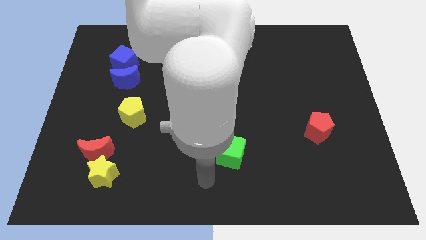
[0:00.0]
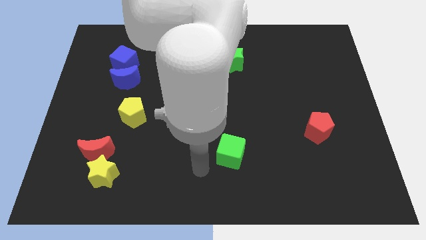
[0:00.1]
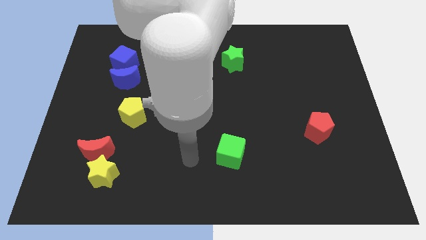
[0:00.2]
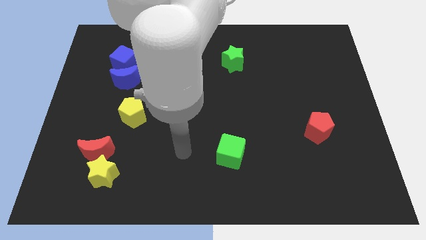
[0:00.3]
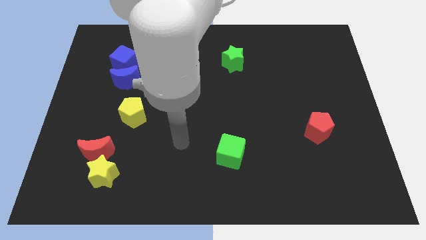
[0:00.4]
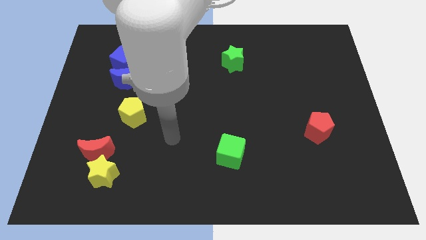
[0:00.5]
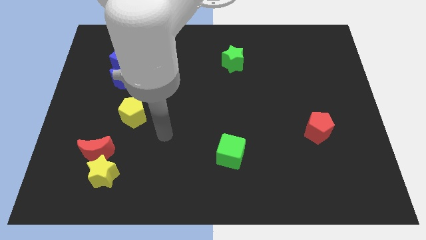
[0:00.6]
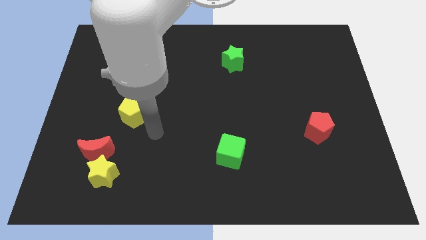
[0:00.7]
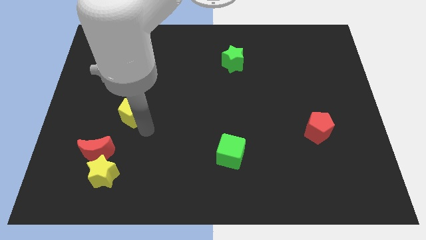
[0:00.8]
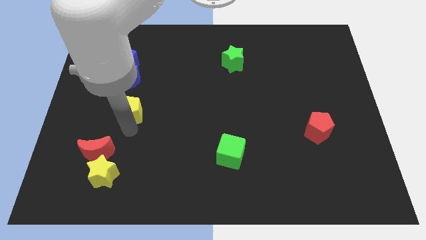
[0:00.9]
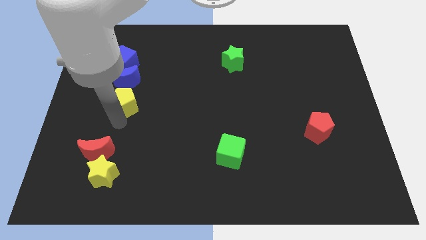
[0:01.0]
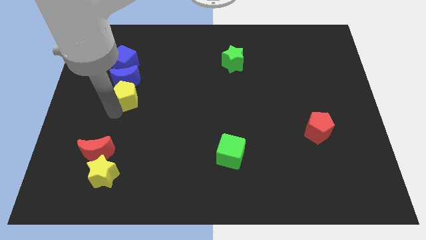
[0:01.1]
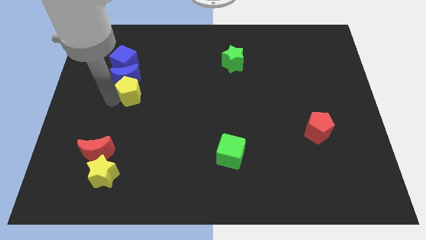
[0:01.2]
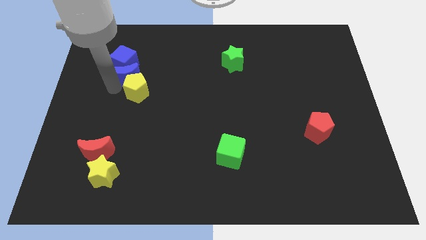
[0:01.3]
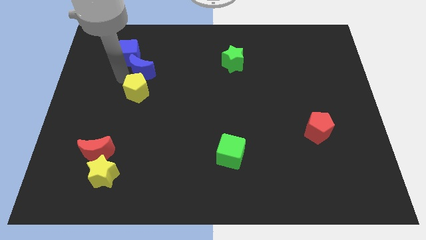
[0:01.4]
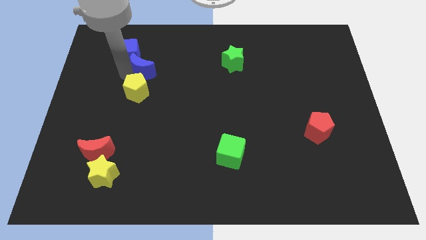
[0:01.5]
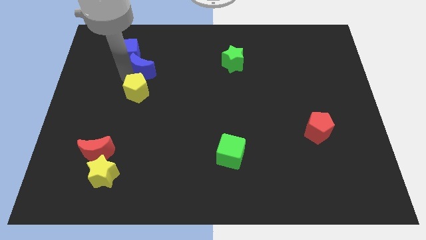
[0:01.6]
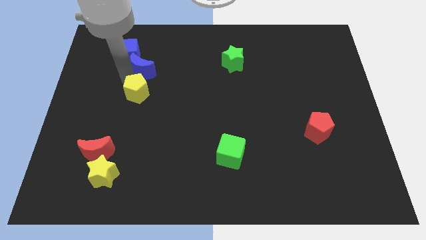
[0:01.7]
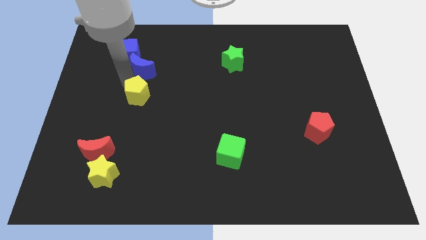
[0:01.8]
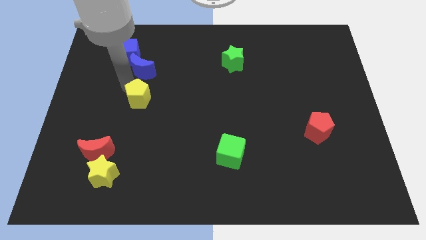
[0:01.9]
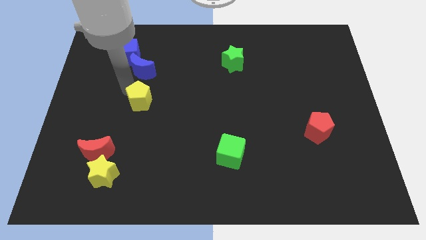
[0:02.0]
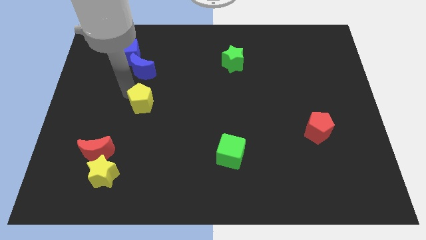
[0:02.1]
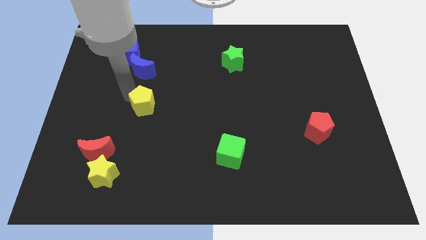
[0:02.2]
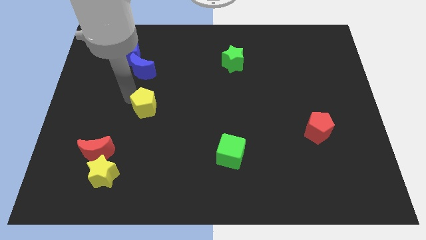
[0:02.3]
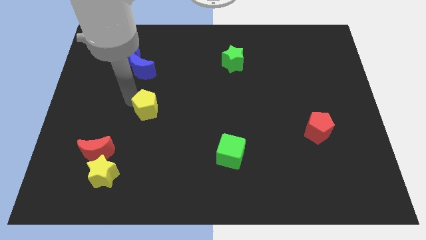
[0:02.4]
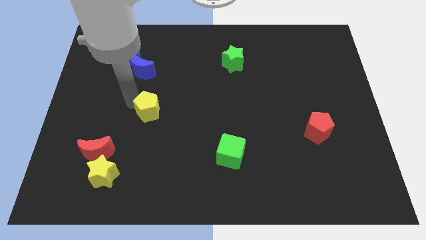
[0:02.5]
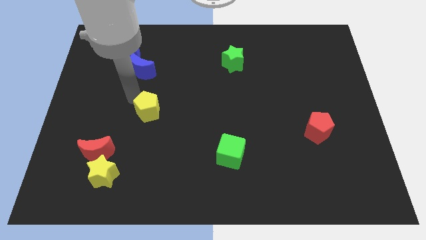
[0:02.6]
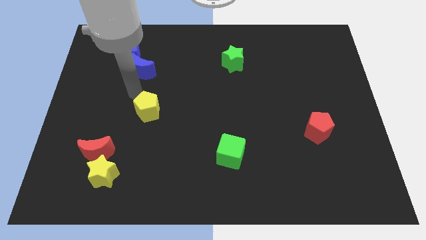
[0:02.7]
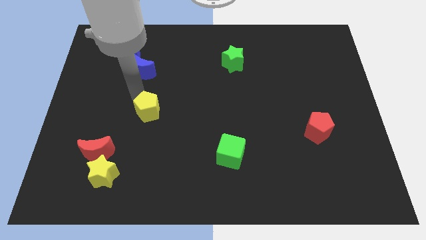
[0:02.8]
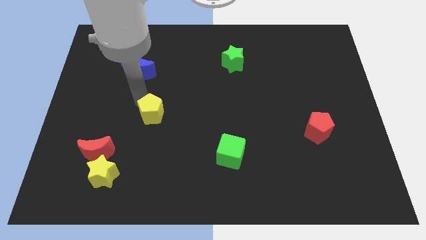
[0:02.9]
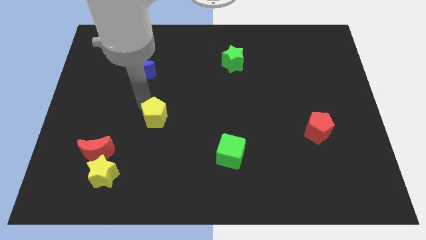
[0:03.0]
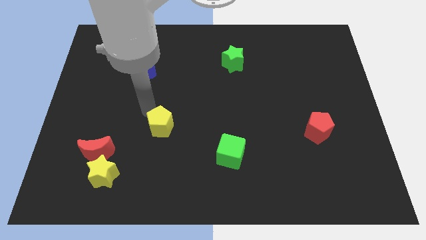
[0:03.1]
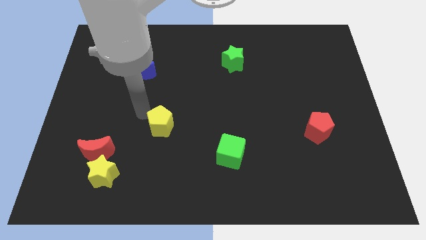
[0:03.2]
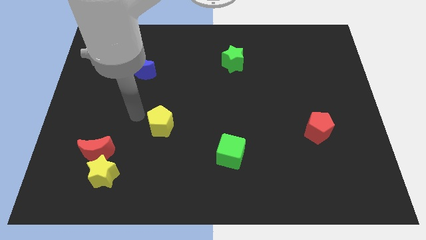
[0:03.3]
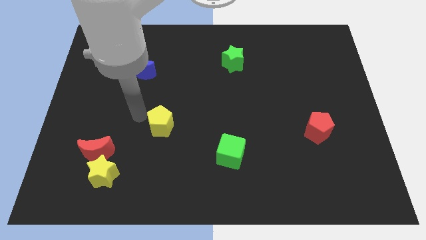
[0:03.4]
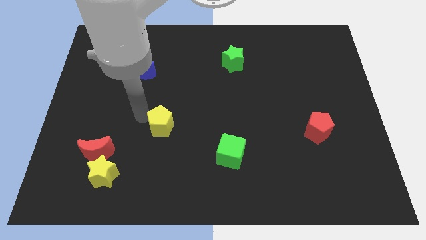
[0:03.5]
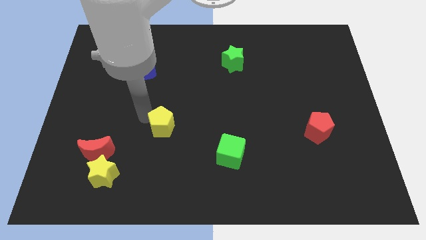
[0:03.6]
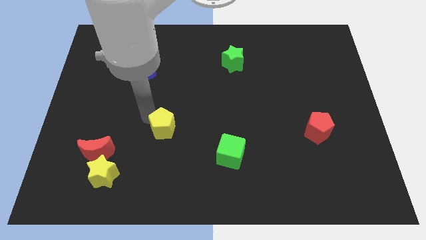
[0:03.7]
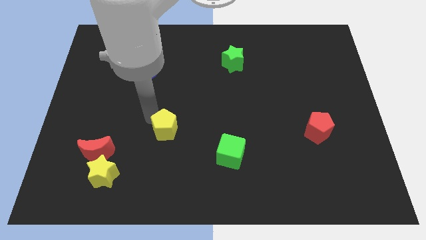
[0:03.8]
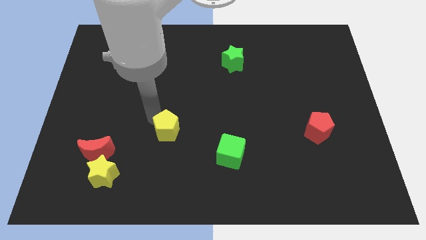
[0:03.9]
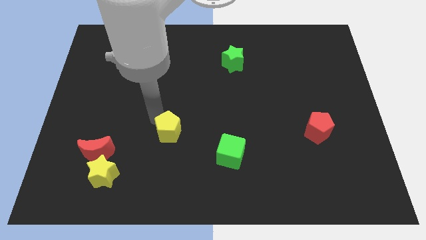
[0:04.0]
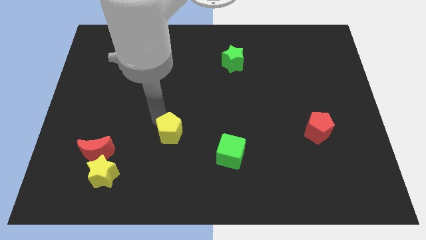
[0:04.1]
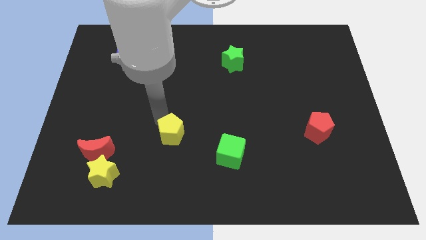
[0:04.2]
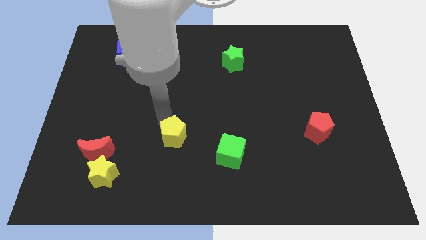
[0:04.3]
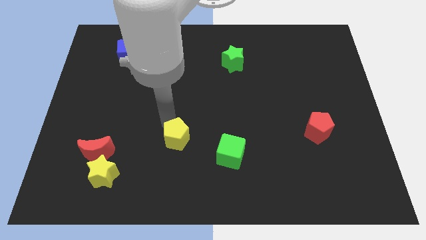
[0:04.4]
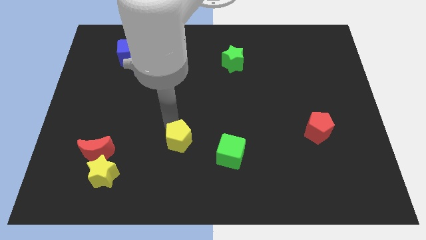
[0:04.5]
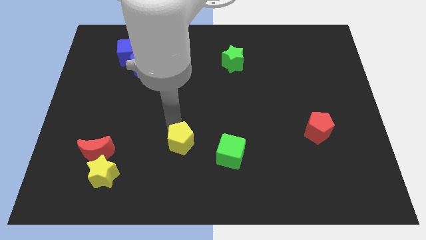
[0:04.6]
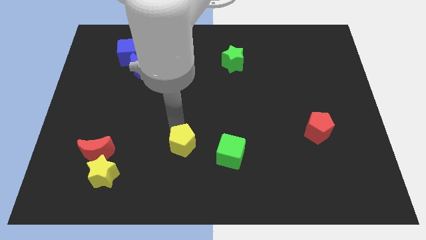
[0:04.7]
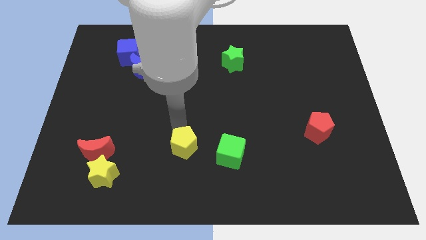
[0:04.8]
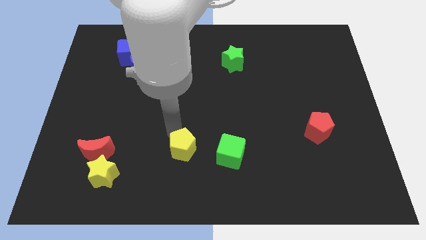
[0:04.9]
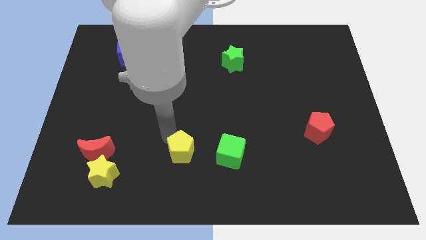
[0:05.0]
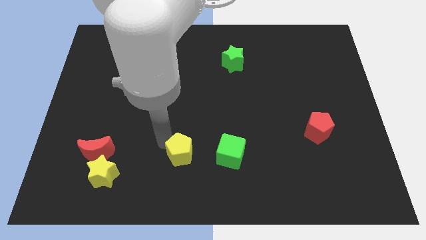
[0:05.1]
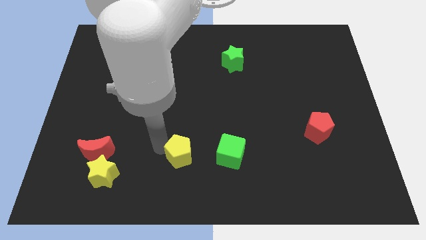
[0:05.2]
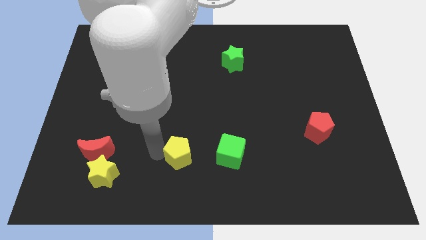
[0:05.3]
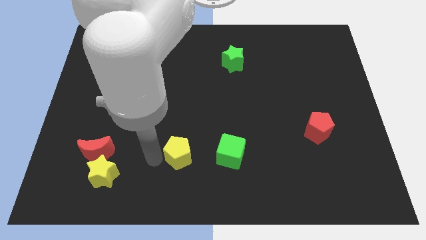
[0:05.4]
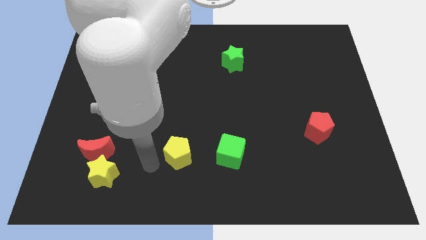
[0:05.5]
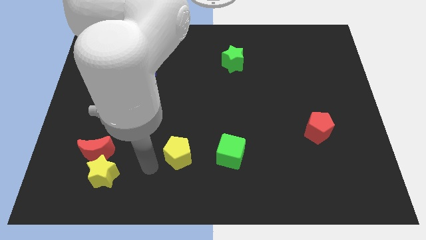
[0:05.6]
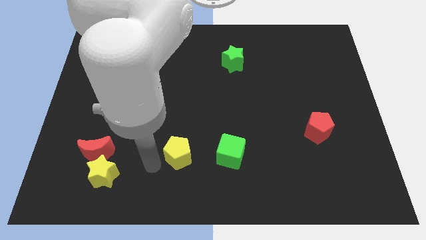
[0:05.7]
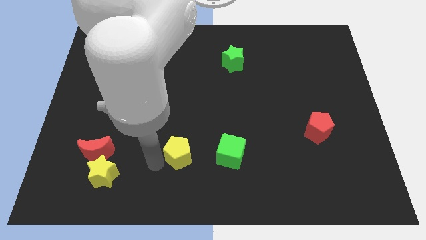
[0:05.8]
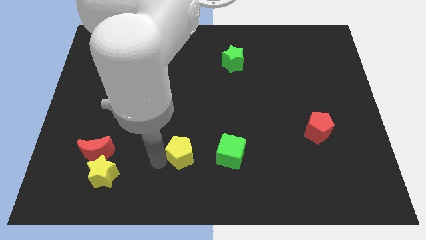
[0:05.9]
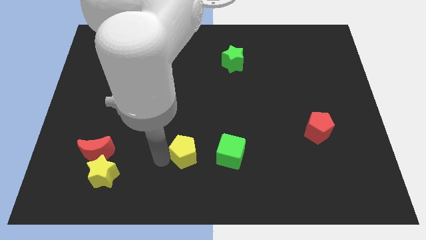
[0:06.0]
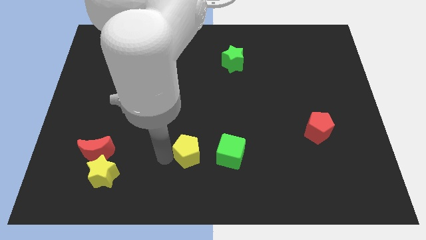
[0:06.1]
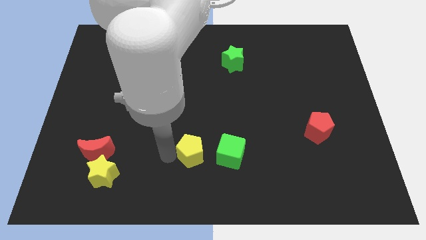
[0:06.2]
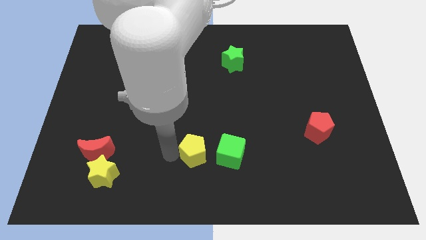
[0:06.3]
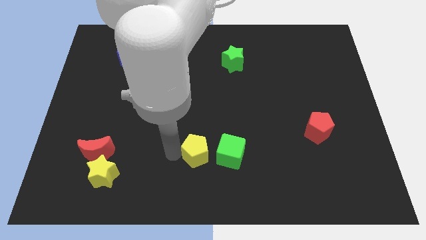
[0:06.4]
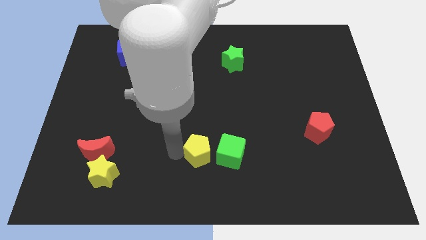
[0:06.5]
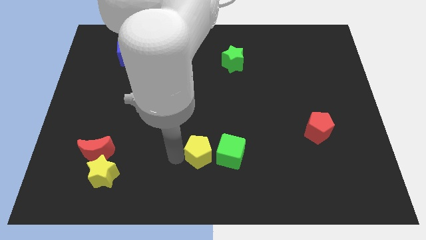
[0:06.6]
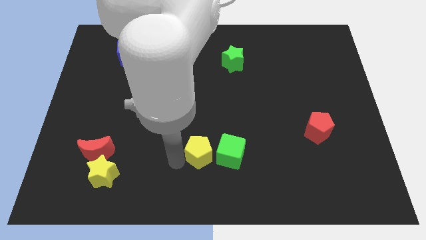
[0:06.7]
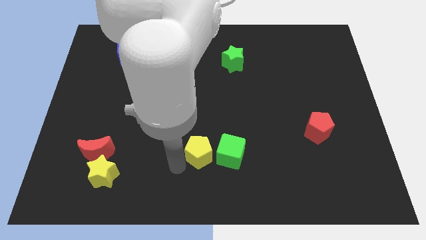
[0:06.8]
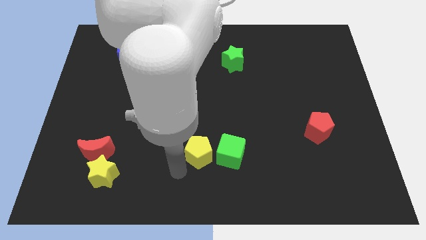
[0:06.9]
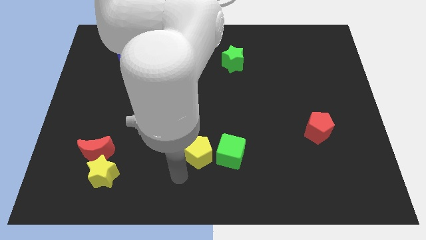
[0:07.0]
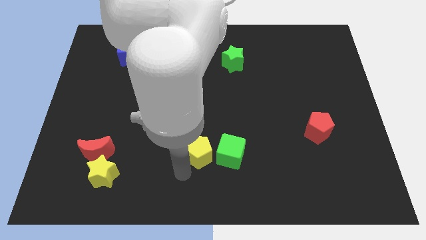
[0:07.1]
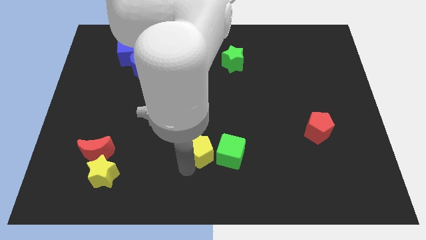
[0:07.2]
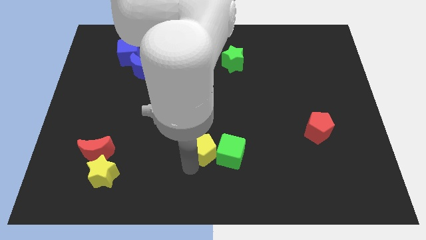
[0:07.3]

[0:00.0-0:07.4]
push the yellow pentagon towards the green cube
